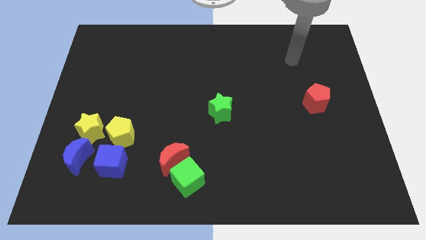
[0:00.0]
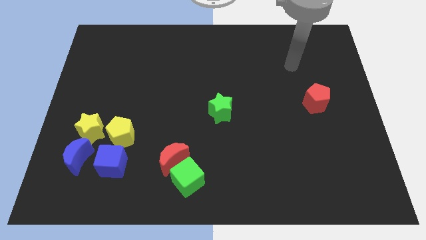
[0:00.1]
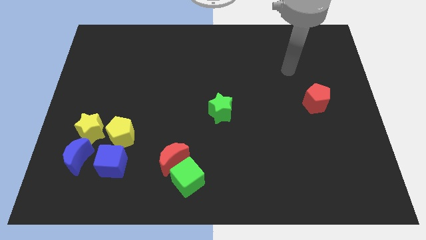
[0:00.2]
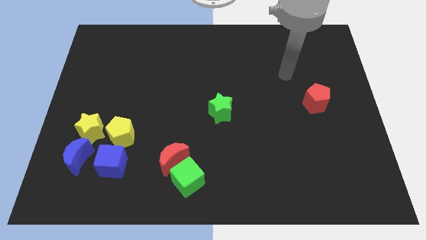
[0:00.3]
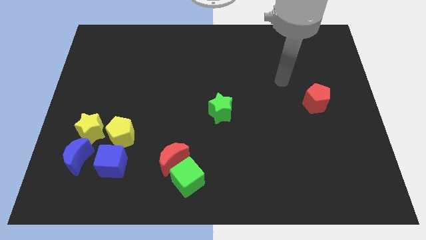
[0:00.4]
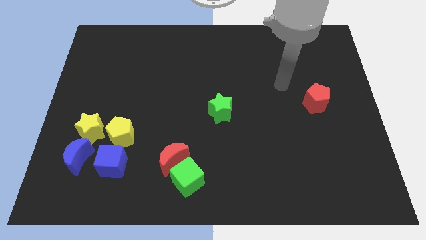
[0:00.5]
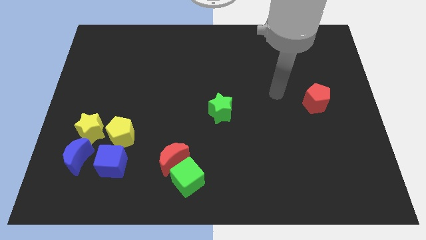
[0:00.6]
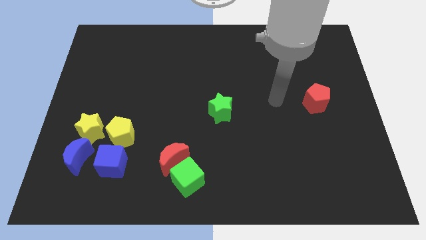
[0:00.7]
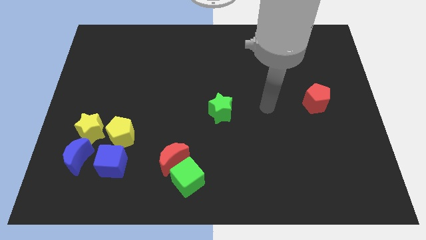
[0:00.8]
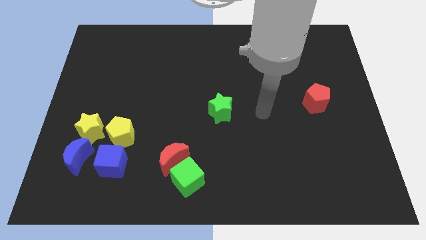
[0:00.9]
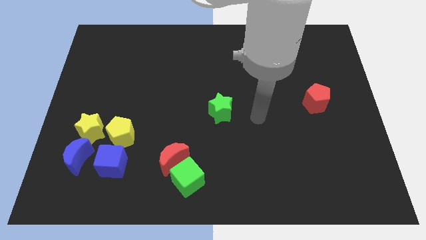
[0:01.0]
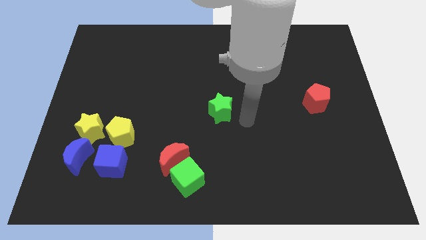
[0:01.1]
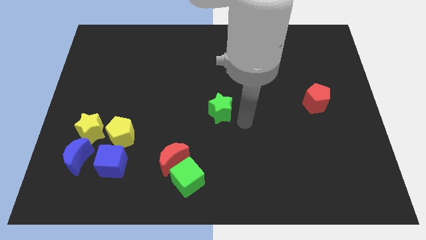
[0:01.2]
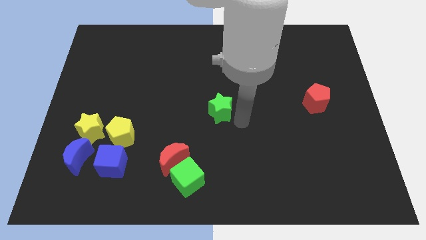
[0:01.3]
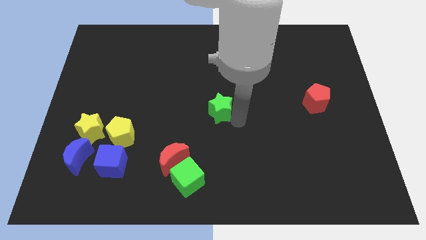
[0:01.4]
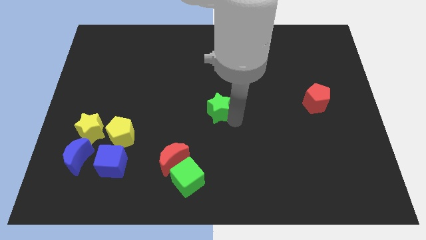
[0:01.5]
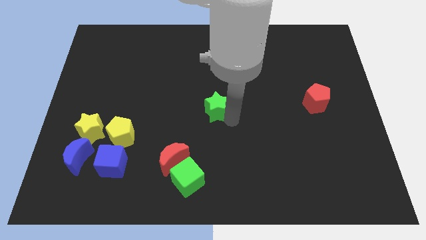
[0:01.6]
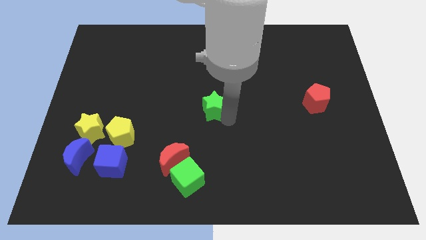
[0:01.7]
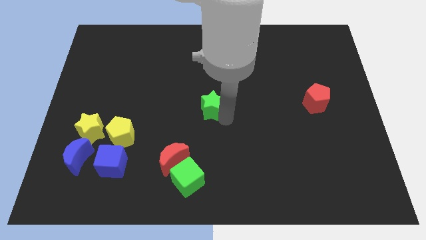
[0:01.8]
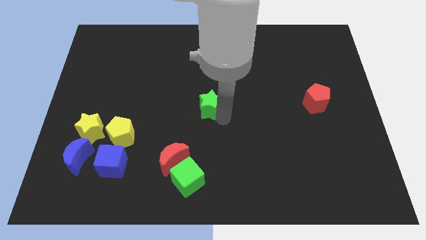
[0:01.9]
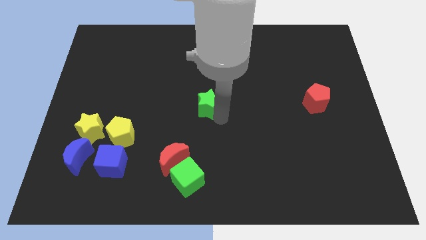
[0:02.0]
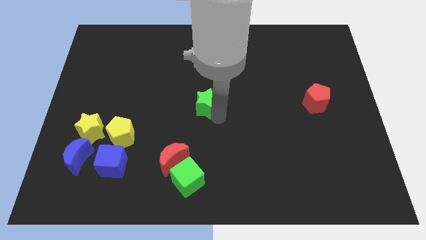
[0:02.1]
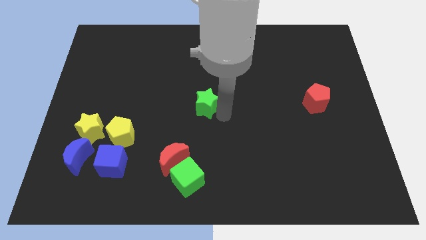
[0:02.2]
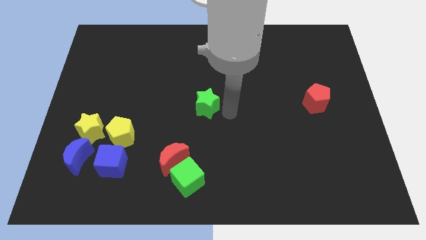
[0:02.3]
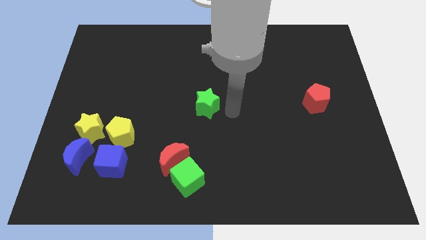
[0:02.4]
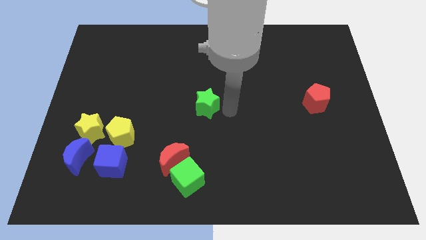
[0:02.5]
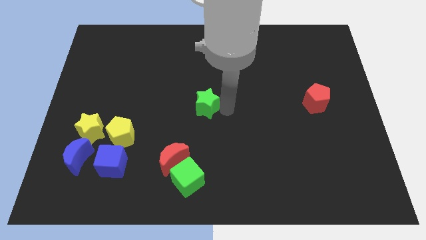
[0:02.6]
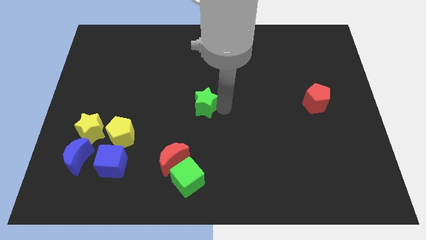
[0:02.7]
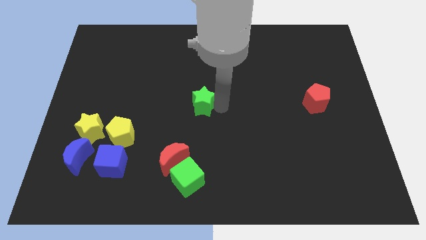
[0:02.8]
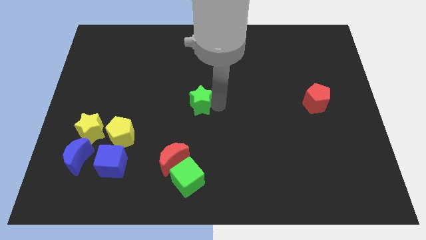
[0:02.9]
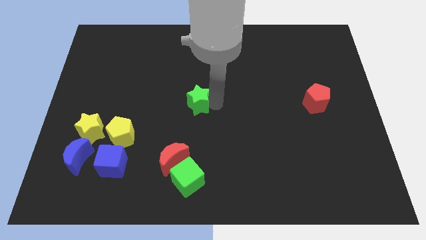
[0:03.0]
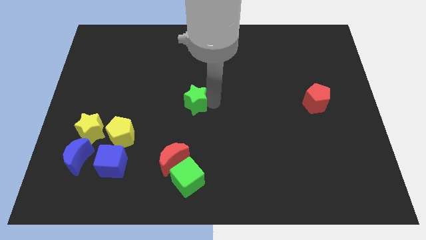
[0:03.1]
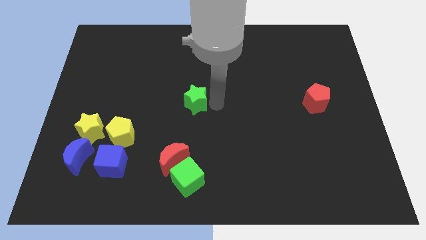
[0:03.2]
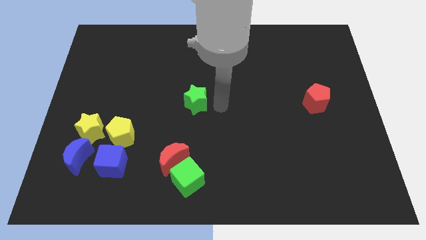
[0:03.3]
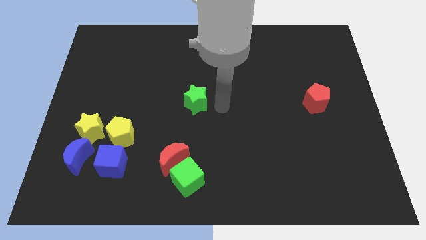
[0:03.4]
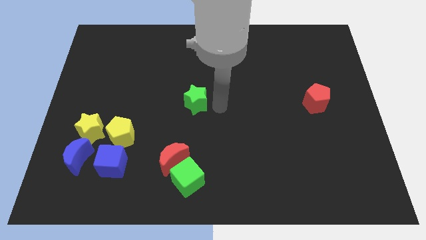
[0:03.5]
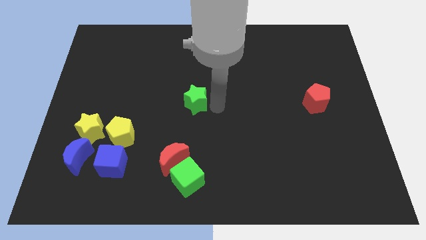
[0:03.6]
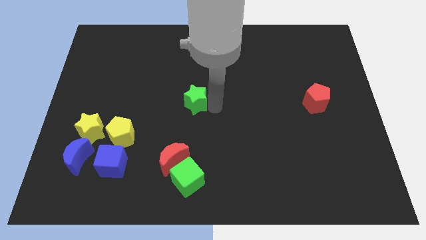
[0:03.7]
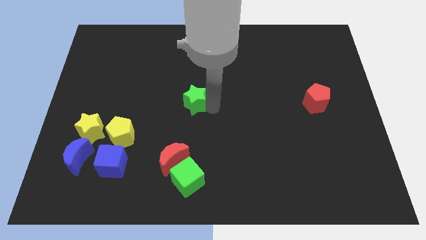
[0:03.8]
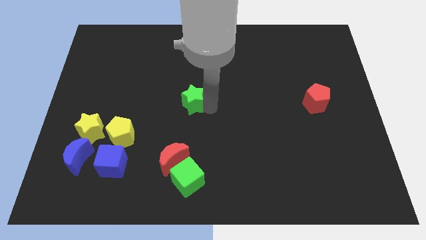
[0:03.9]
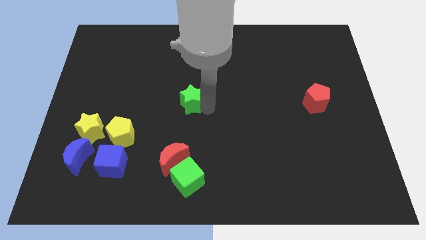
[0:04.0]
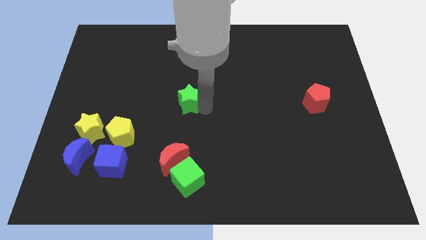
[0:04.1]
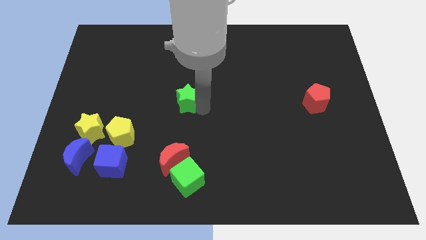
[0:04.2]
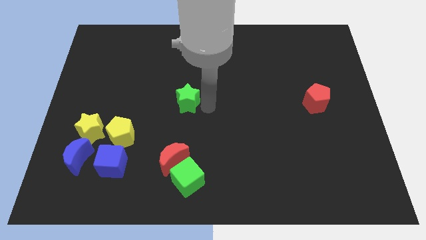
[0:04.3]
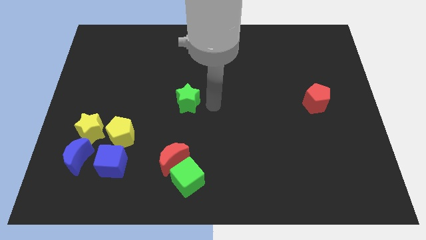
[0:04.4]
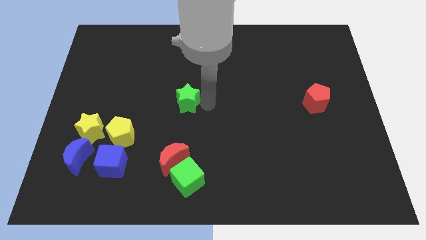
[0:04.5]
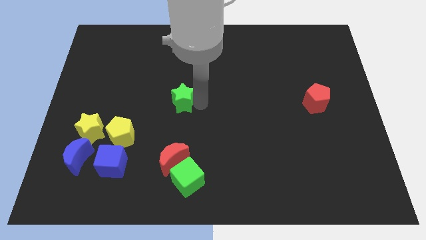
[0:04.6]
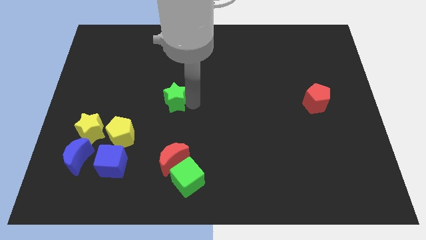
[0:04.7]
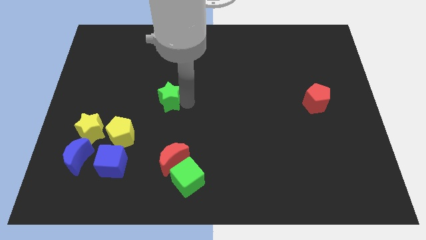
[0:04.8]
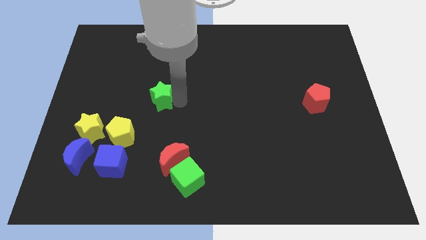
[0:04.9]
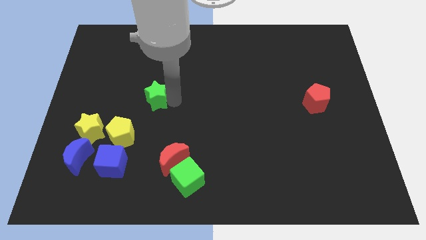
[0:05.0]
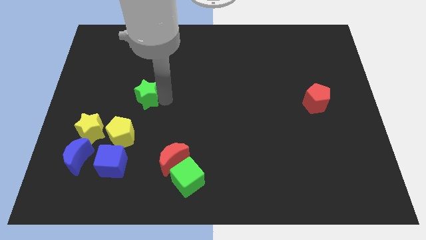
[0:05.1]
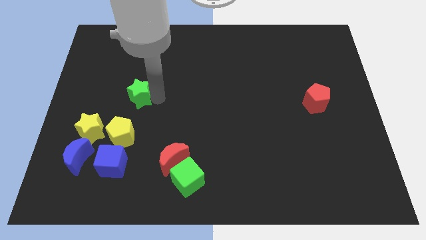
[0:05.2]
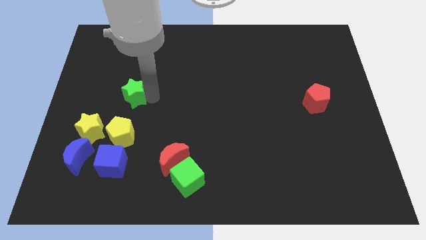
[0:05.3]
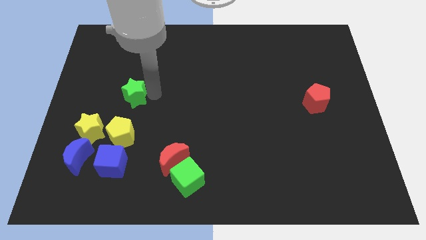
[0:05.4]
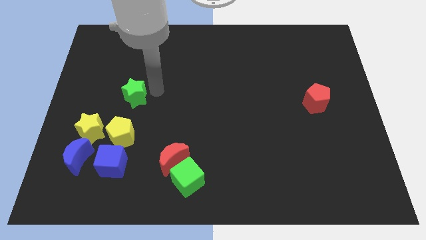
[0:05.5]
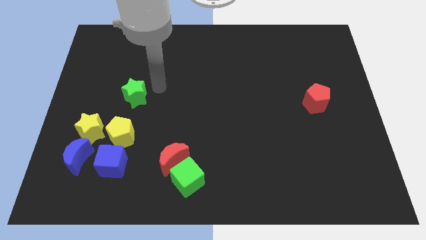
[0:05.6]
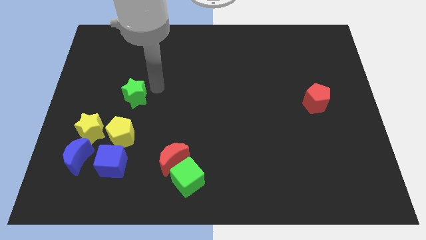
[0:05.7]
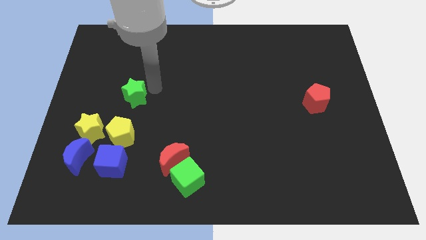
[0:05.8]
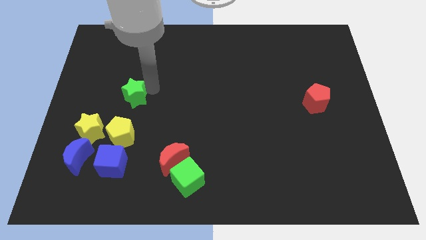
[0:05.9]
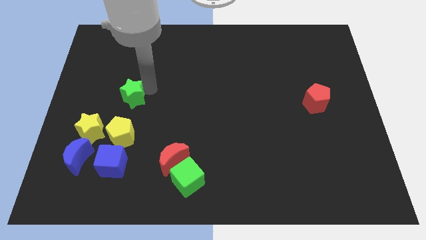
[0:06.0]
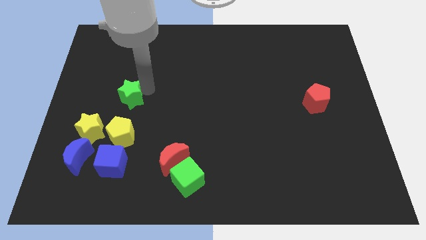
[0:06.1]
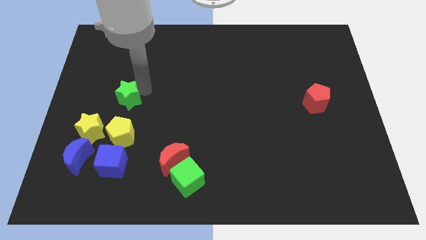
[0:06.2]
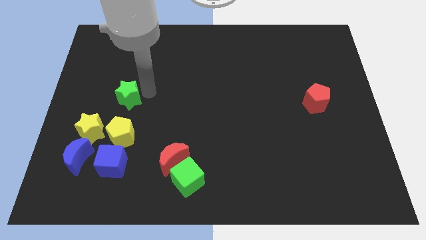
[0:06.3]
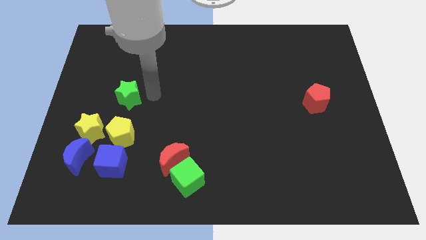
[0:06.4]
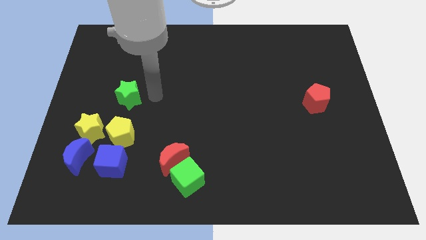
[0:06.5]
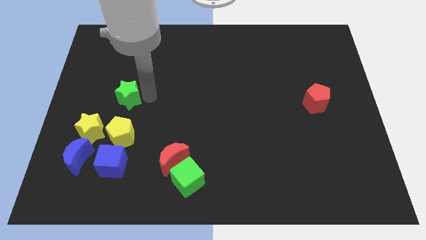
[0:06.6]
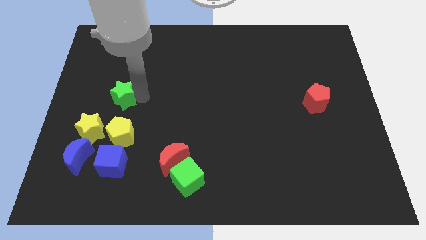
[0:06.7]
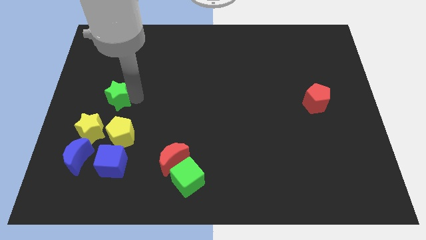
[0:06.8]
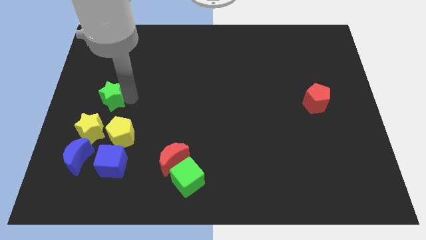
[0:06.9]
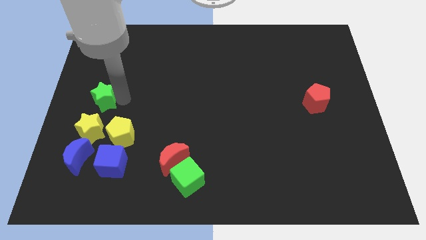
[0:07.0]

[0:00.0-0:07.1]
push the green star to the left side of the board

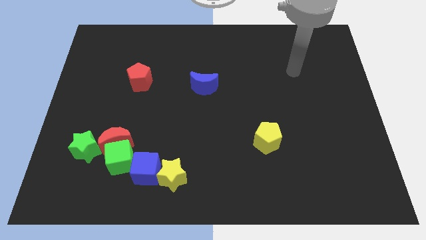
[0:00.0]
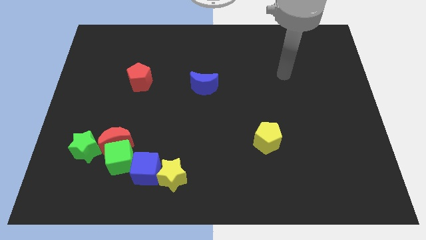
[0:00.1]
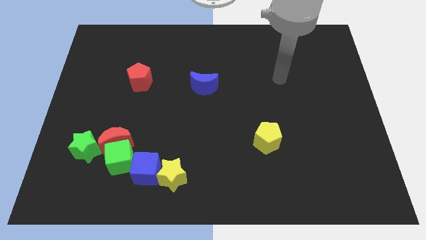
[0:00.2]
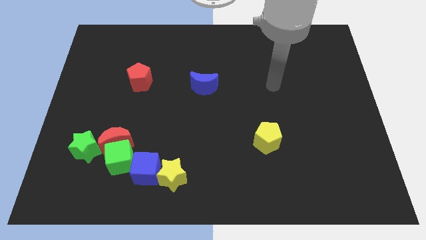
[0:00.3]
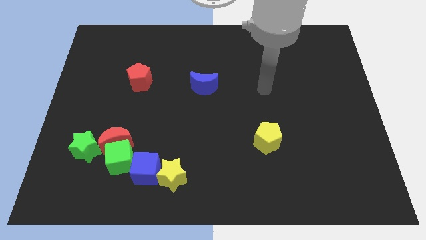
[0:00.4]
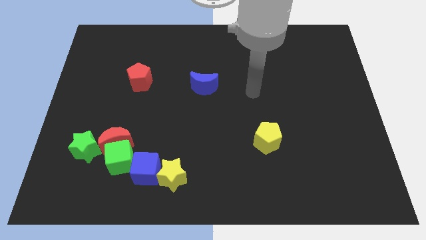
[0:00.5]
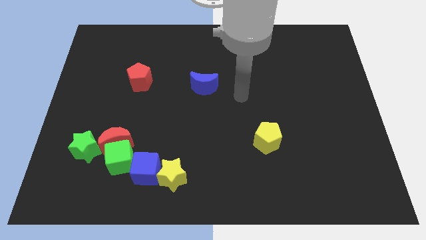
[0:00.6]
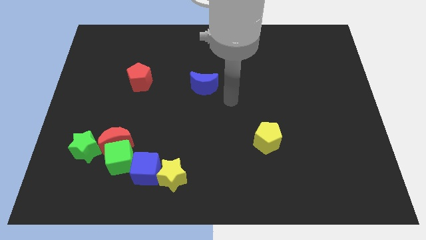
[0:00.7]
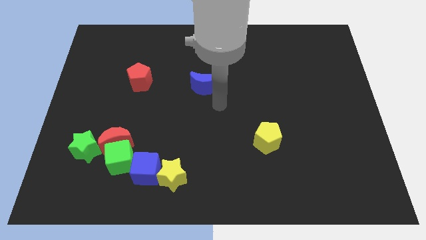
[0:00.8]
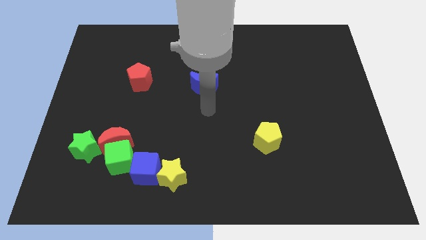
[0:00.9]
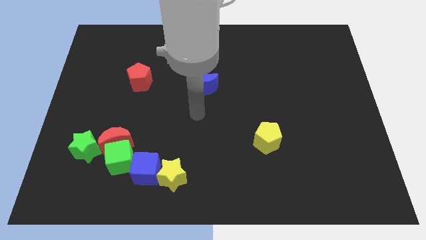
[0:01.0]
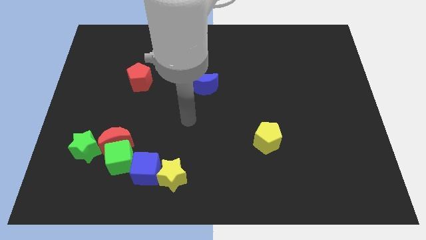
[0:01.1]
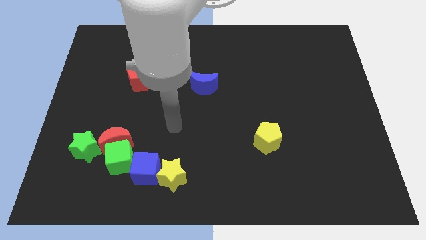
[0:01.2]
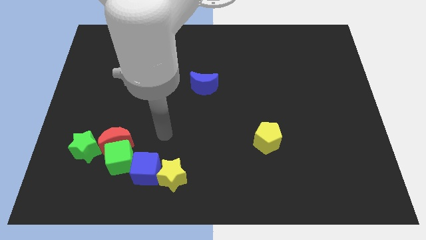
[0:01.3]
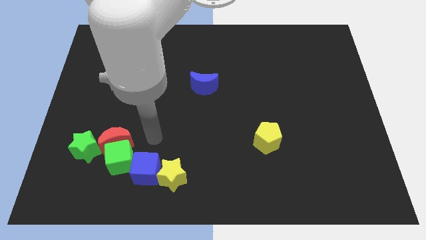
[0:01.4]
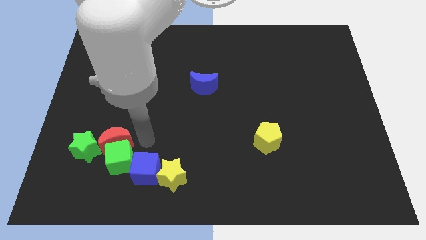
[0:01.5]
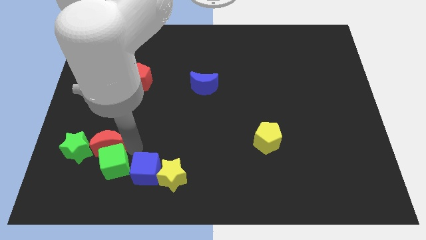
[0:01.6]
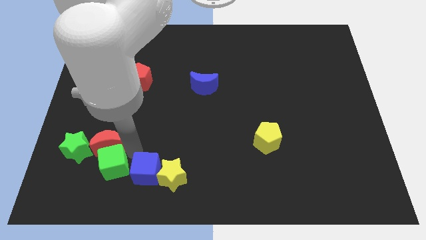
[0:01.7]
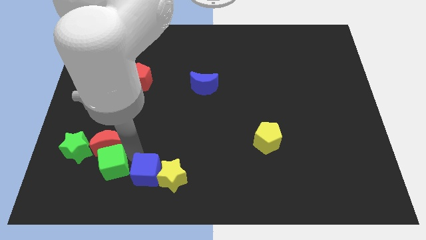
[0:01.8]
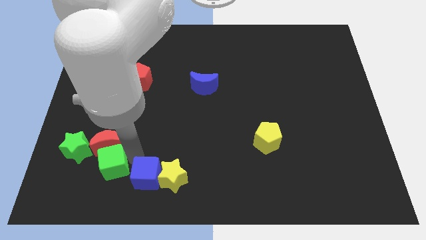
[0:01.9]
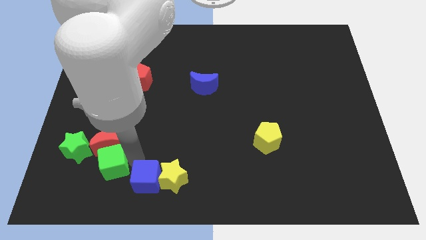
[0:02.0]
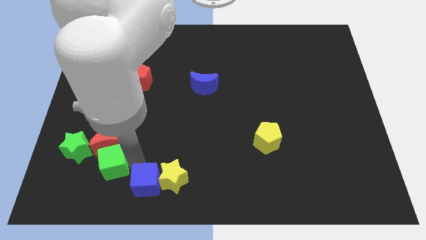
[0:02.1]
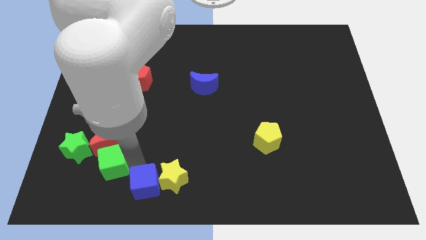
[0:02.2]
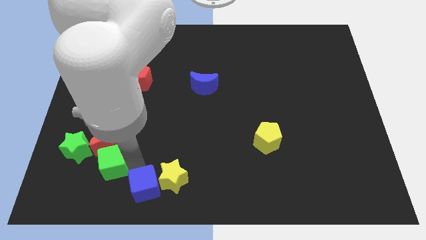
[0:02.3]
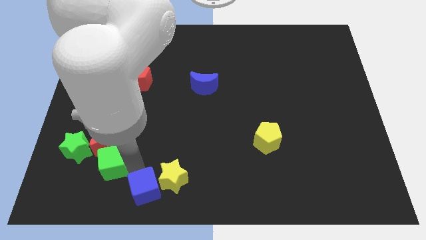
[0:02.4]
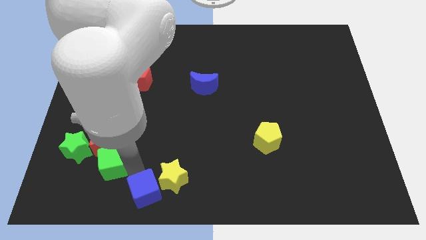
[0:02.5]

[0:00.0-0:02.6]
slide the blue cube to the bottom side
